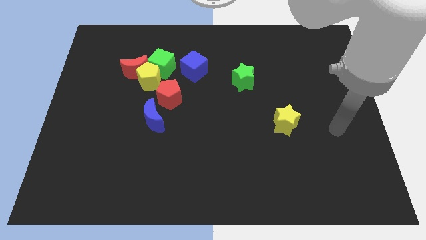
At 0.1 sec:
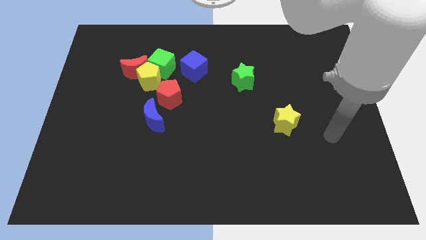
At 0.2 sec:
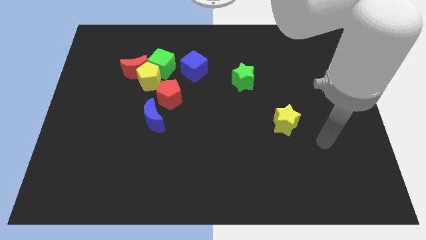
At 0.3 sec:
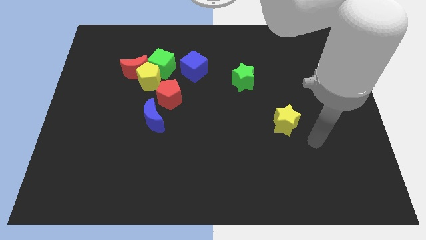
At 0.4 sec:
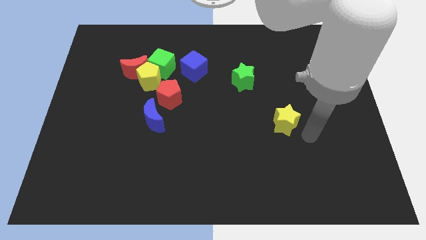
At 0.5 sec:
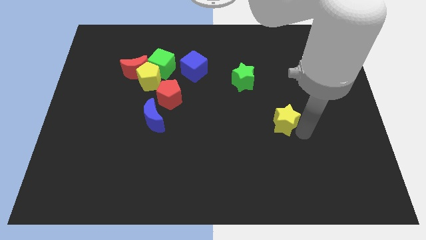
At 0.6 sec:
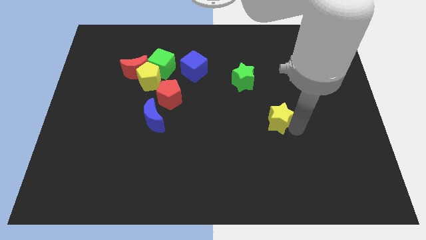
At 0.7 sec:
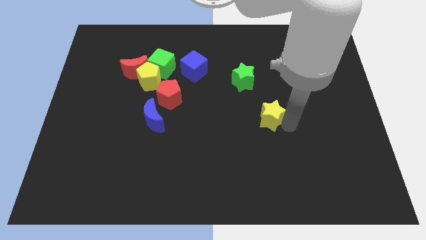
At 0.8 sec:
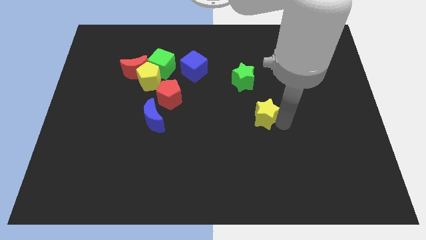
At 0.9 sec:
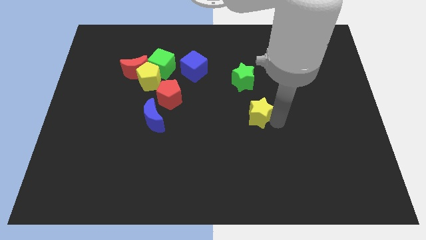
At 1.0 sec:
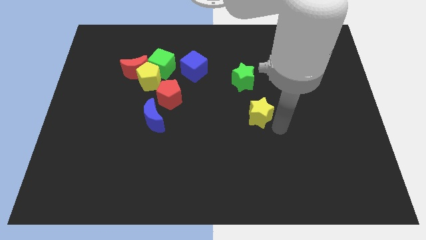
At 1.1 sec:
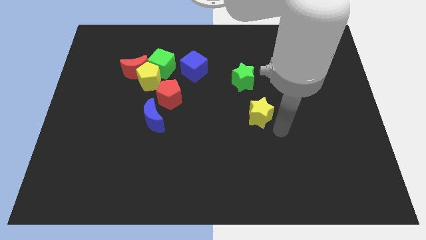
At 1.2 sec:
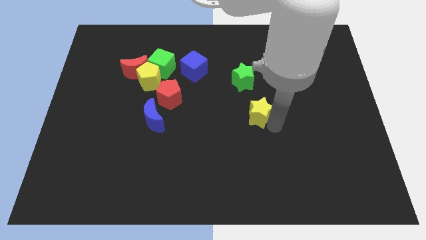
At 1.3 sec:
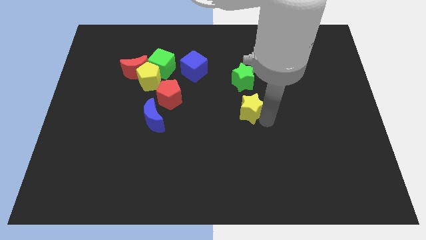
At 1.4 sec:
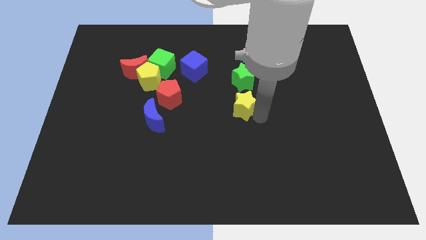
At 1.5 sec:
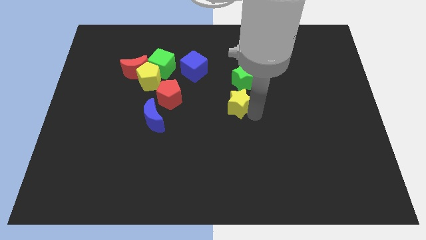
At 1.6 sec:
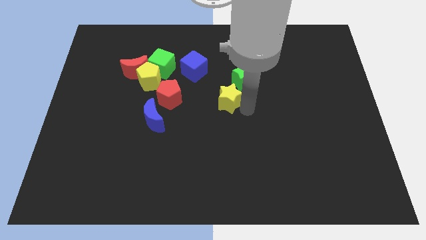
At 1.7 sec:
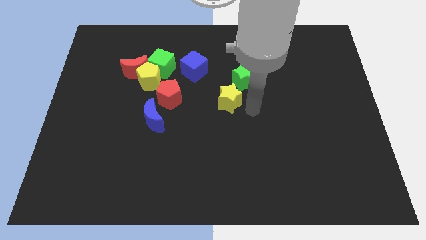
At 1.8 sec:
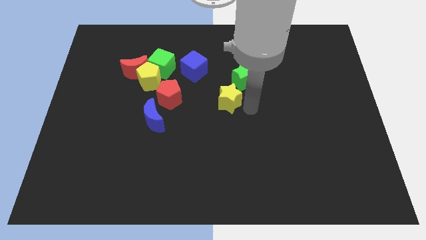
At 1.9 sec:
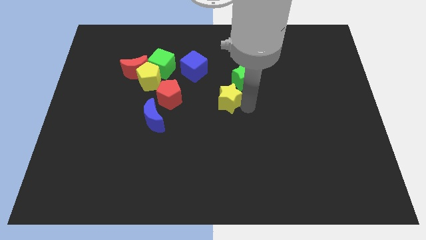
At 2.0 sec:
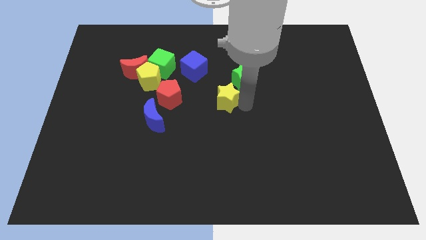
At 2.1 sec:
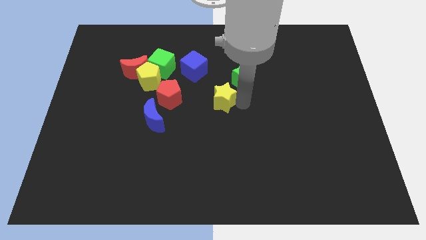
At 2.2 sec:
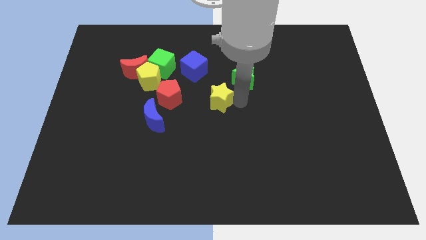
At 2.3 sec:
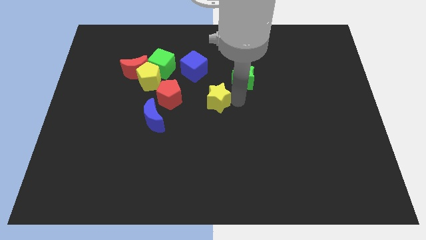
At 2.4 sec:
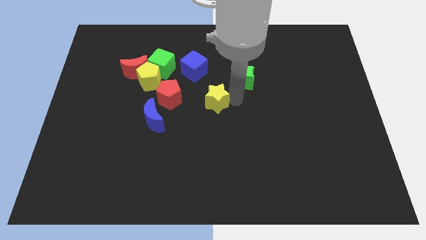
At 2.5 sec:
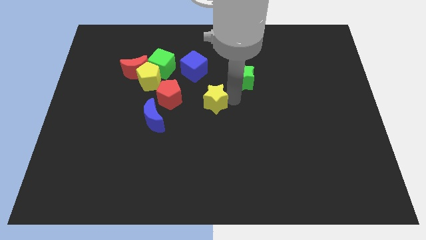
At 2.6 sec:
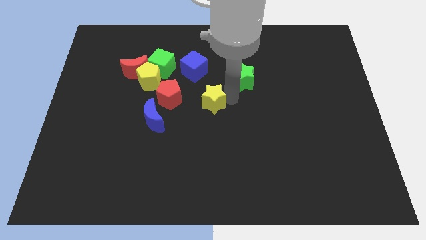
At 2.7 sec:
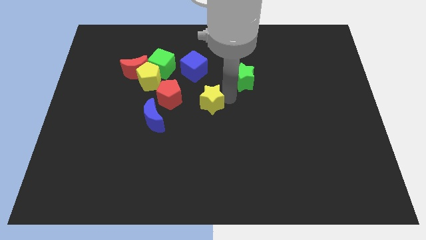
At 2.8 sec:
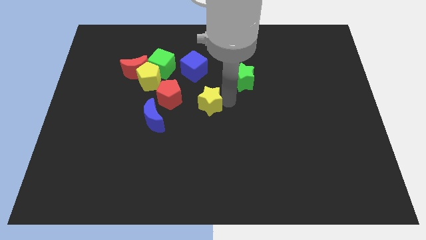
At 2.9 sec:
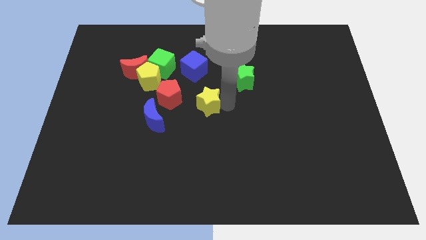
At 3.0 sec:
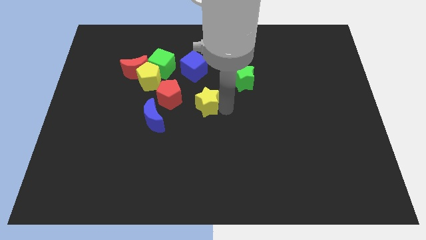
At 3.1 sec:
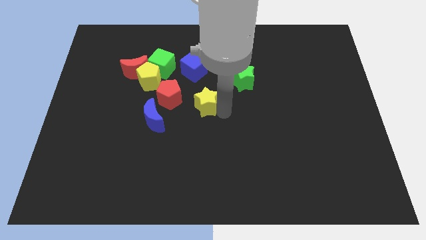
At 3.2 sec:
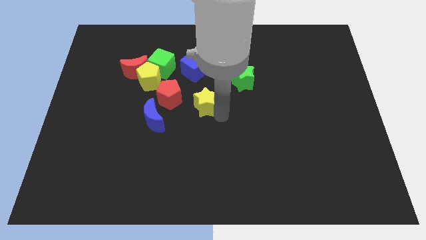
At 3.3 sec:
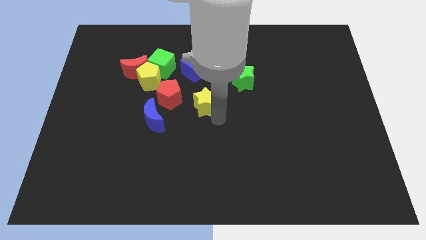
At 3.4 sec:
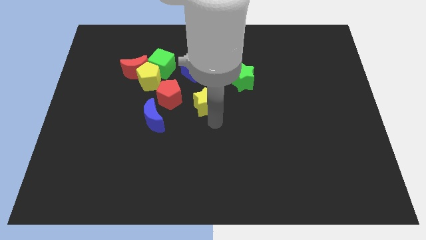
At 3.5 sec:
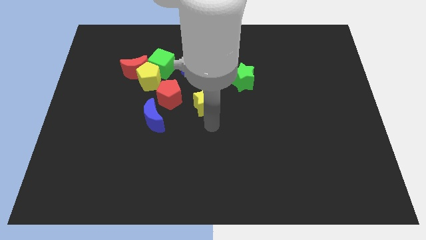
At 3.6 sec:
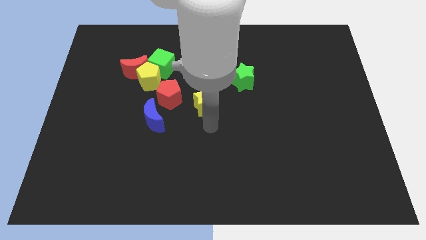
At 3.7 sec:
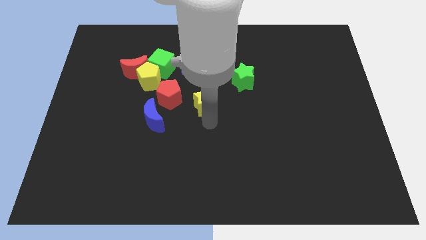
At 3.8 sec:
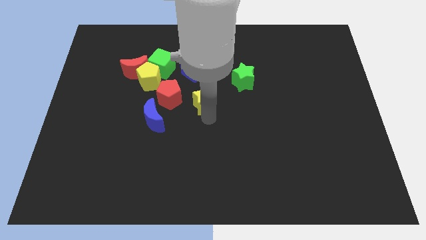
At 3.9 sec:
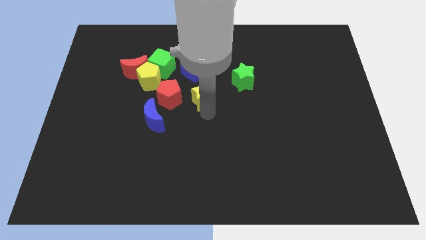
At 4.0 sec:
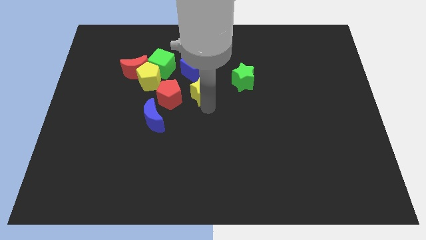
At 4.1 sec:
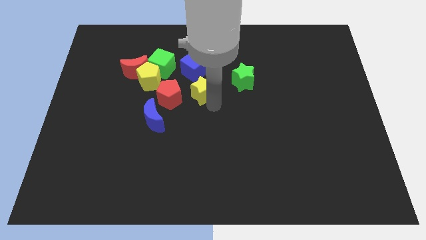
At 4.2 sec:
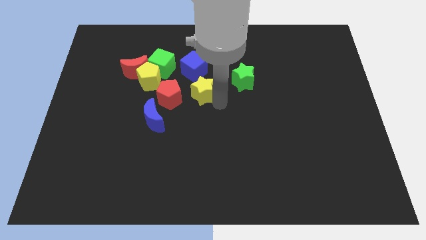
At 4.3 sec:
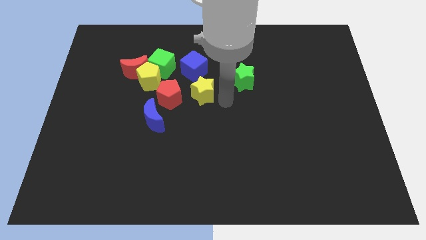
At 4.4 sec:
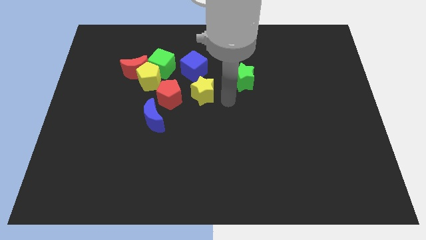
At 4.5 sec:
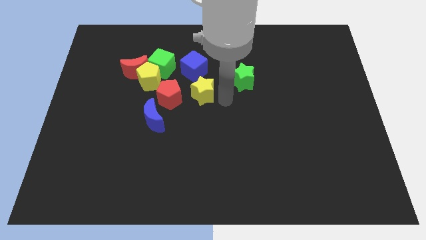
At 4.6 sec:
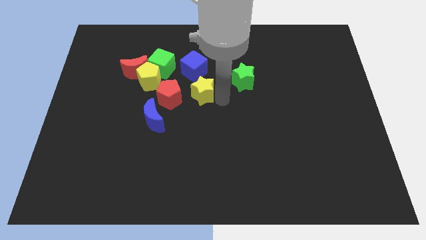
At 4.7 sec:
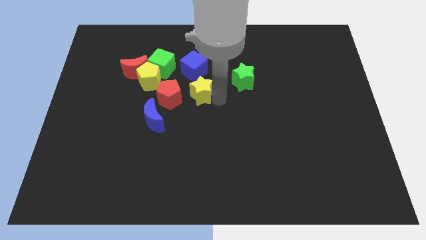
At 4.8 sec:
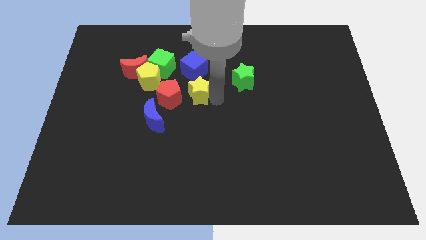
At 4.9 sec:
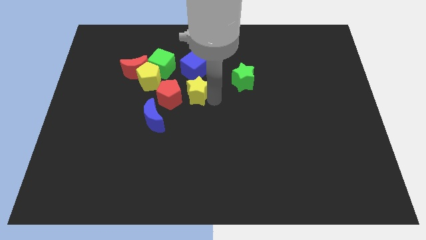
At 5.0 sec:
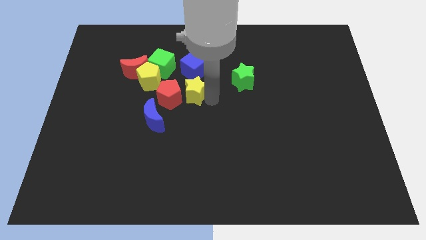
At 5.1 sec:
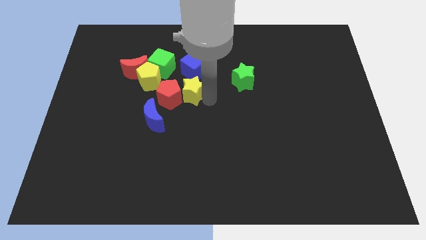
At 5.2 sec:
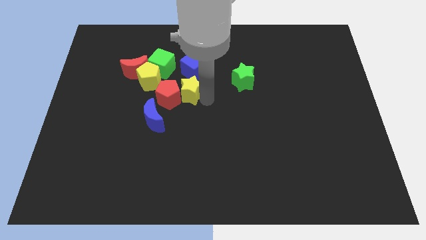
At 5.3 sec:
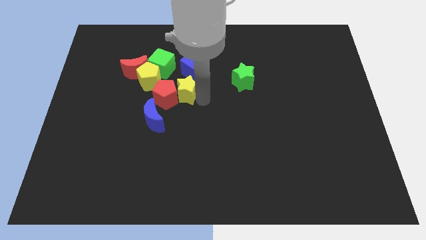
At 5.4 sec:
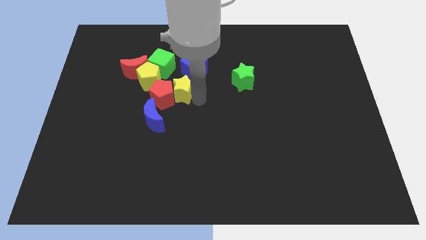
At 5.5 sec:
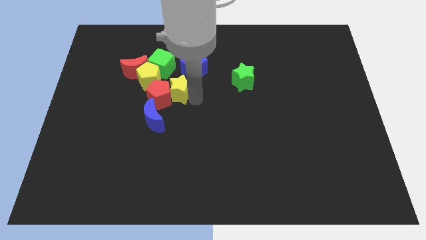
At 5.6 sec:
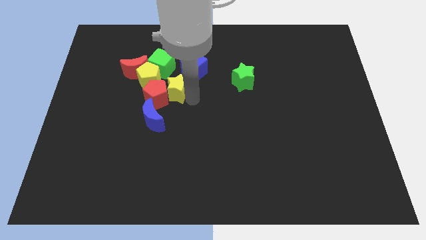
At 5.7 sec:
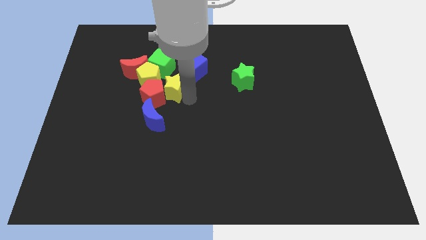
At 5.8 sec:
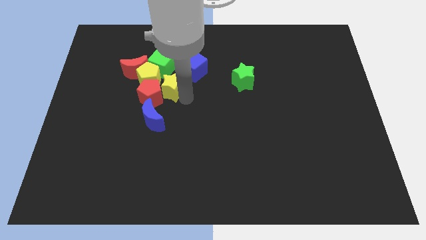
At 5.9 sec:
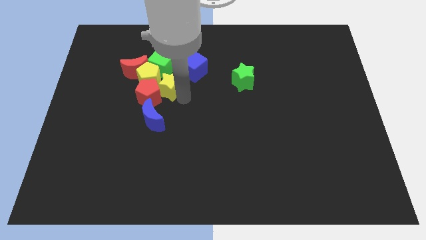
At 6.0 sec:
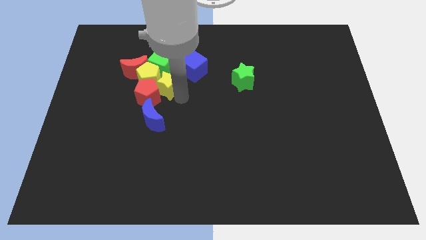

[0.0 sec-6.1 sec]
push the yellow star towards the yellow pentagon

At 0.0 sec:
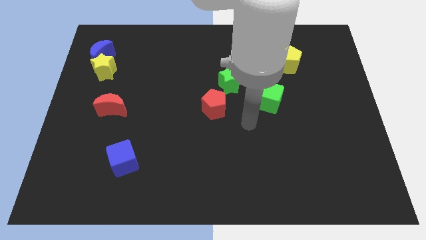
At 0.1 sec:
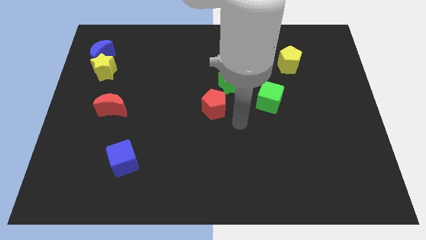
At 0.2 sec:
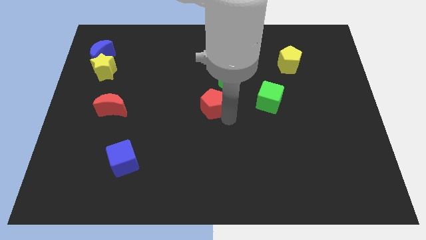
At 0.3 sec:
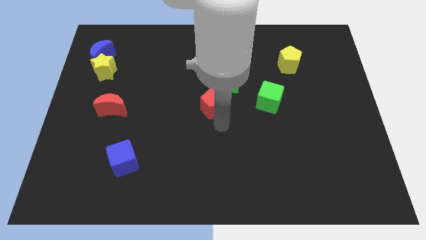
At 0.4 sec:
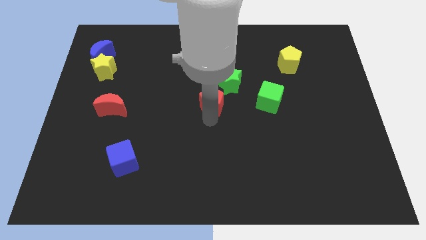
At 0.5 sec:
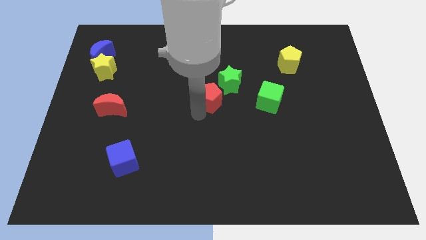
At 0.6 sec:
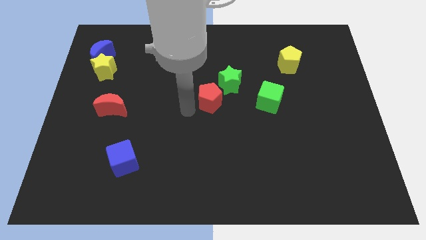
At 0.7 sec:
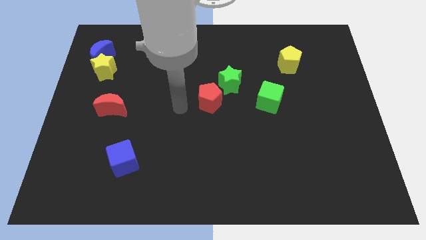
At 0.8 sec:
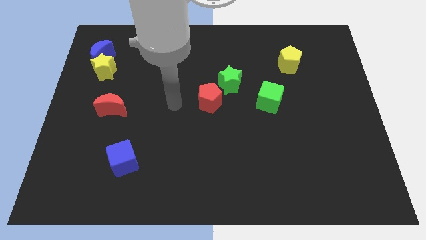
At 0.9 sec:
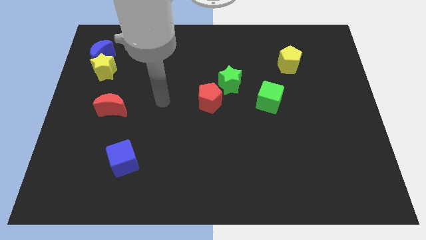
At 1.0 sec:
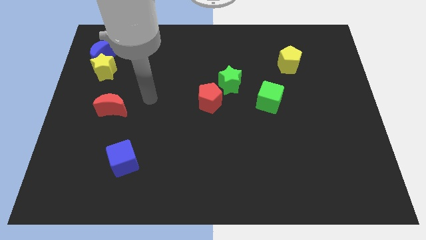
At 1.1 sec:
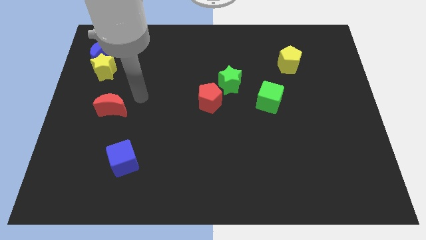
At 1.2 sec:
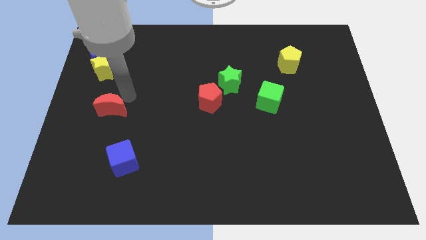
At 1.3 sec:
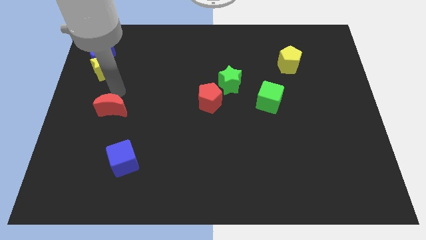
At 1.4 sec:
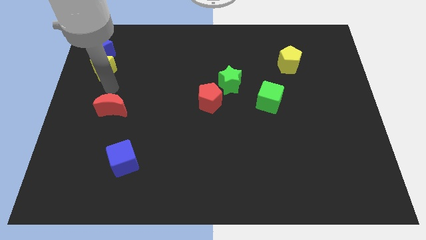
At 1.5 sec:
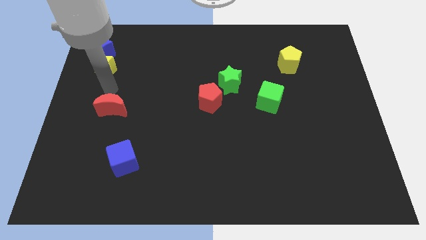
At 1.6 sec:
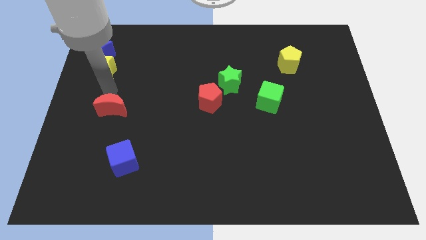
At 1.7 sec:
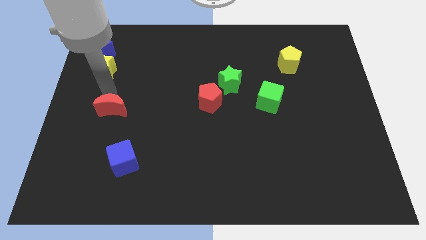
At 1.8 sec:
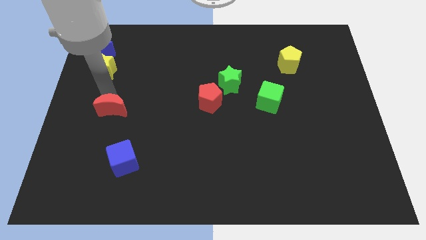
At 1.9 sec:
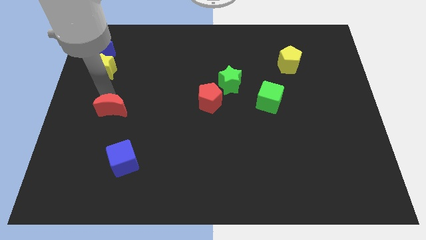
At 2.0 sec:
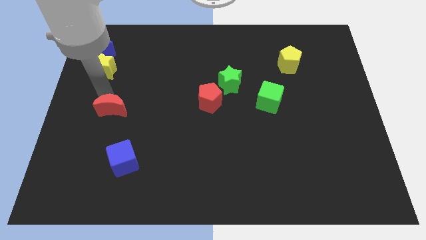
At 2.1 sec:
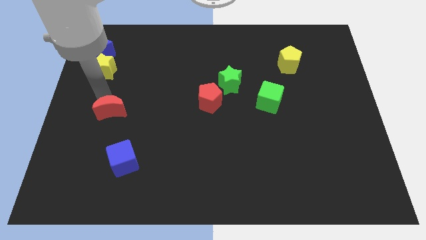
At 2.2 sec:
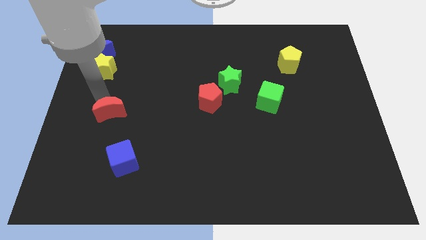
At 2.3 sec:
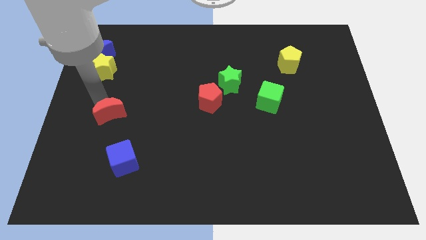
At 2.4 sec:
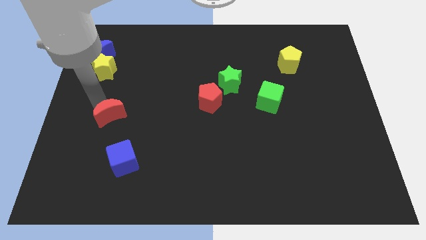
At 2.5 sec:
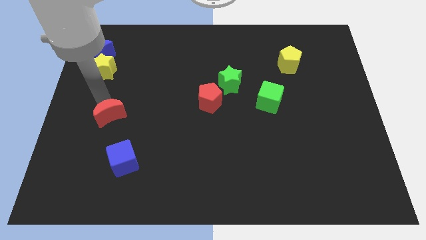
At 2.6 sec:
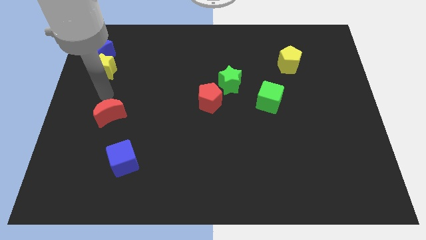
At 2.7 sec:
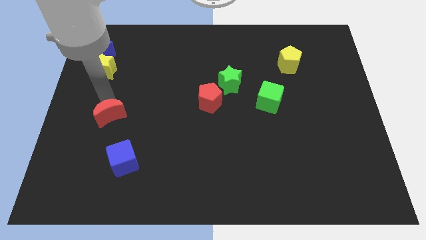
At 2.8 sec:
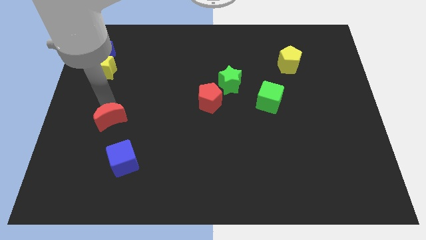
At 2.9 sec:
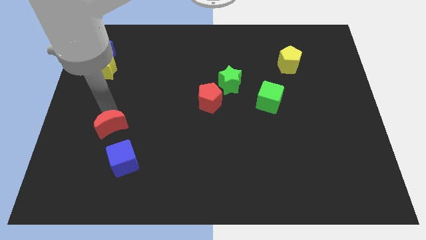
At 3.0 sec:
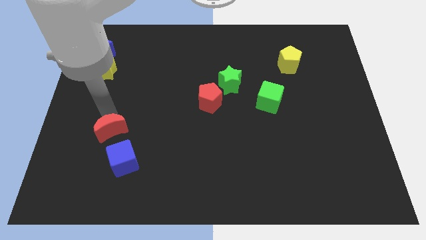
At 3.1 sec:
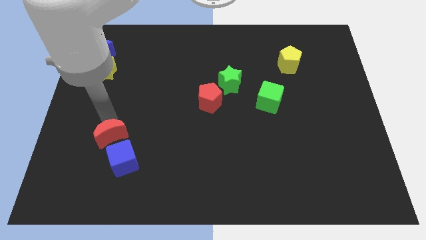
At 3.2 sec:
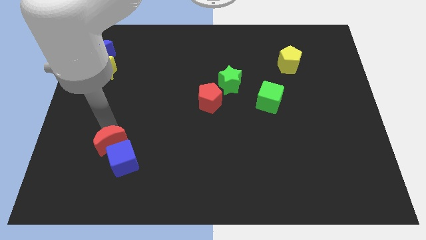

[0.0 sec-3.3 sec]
push the red moon towards the blue cube
